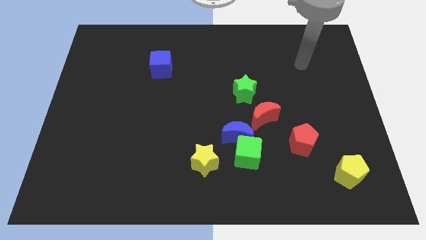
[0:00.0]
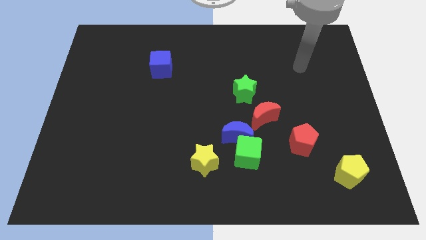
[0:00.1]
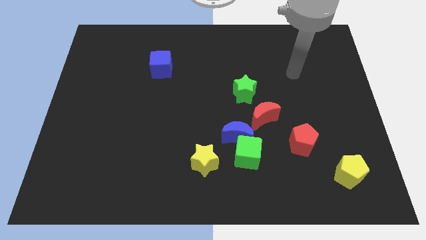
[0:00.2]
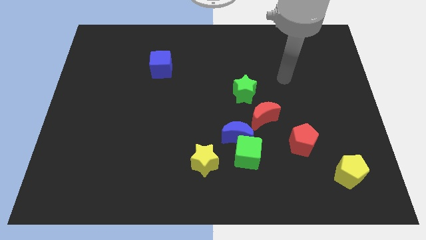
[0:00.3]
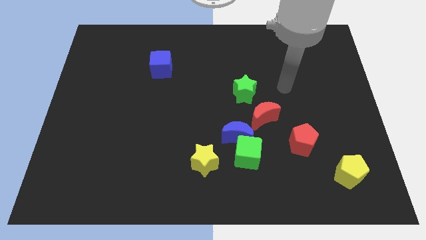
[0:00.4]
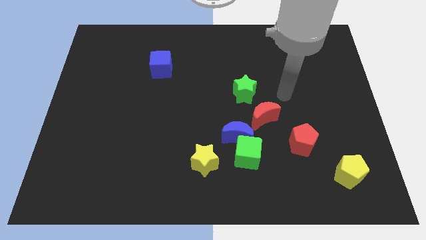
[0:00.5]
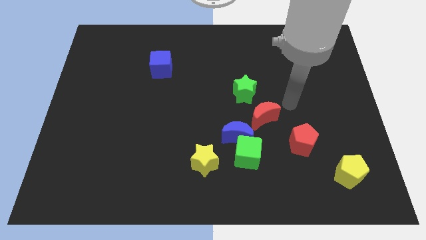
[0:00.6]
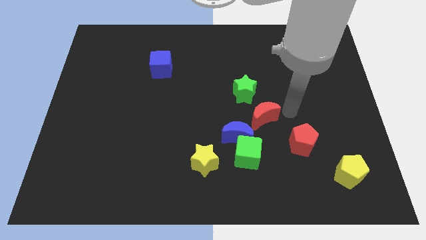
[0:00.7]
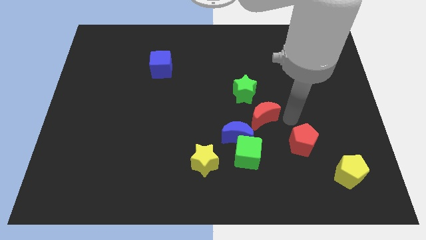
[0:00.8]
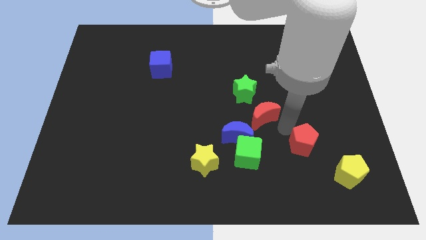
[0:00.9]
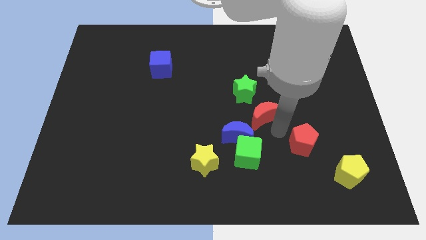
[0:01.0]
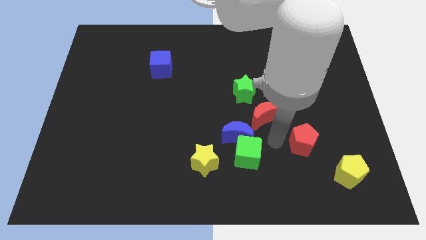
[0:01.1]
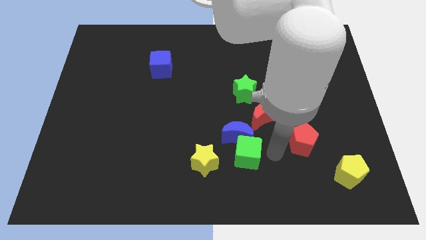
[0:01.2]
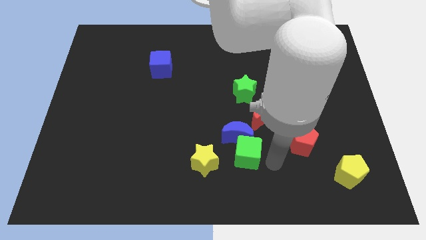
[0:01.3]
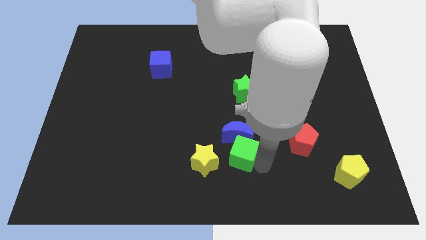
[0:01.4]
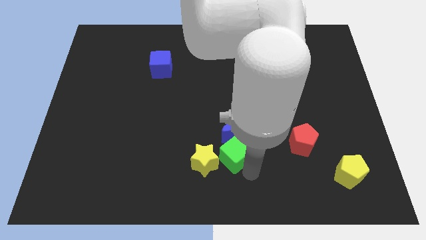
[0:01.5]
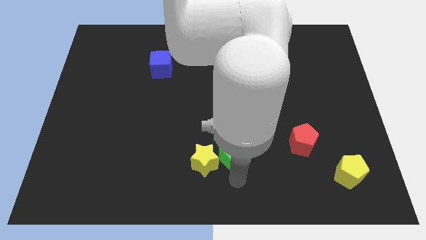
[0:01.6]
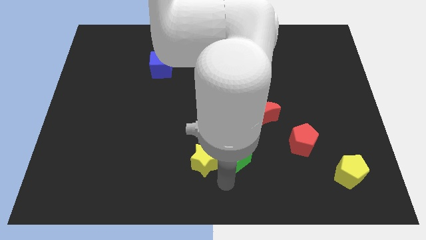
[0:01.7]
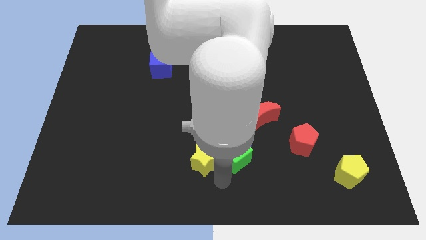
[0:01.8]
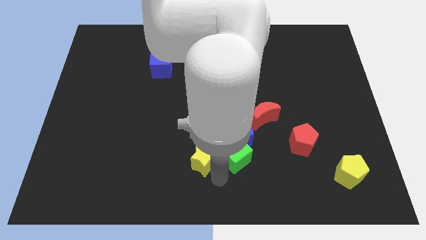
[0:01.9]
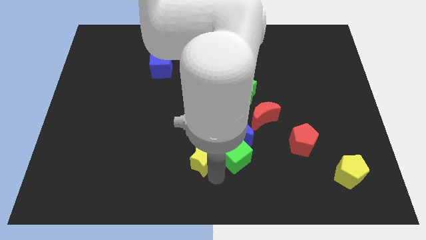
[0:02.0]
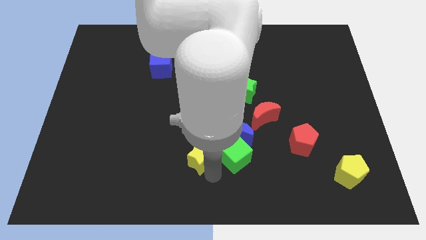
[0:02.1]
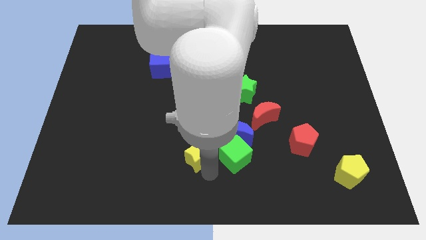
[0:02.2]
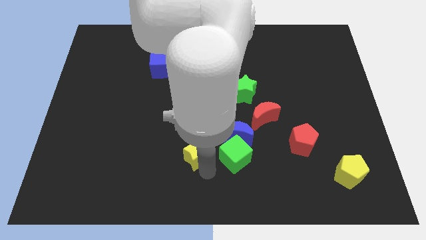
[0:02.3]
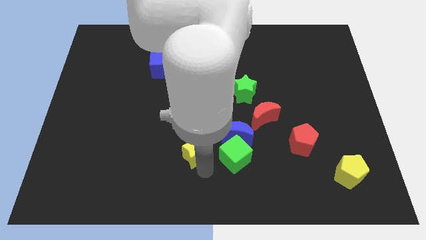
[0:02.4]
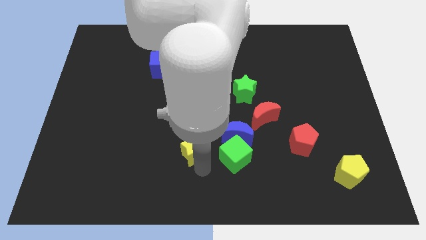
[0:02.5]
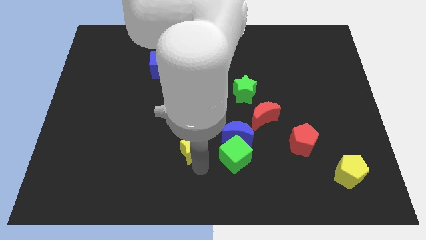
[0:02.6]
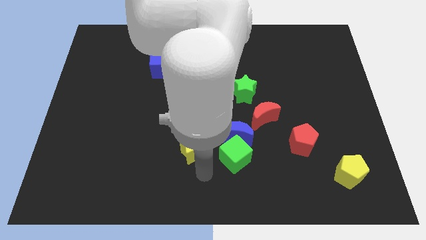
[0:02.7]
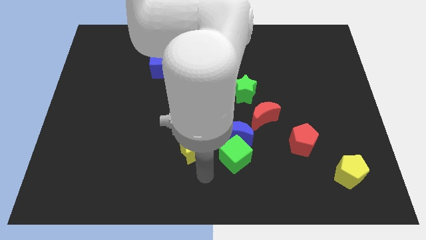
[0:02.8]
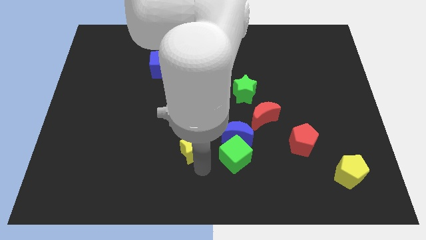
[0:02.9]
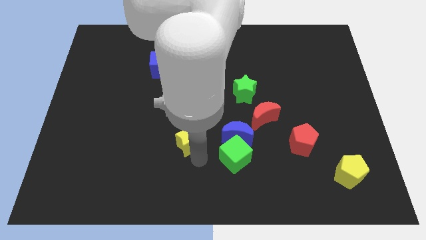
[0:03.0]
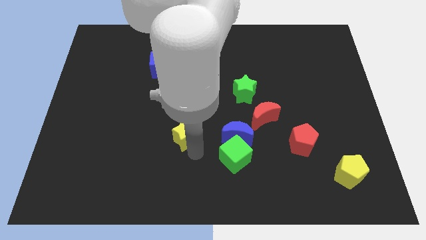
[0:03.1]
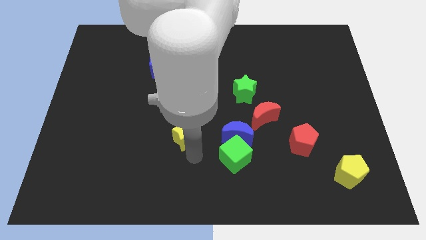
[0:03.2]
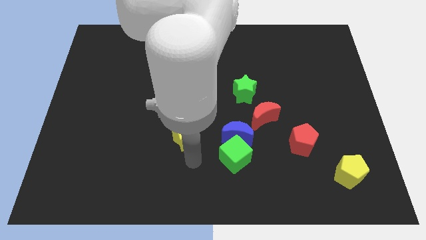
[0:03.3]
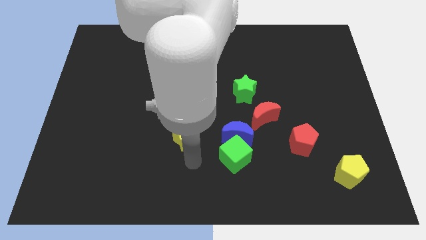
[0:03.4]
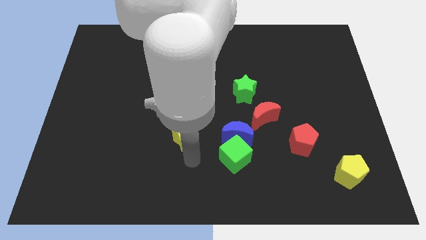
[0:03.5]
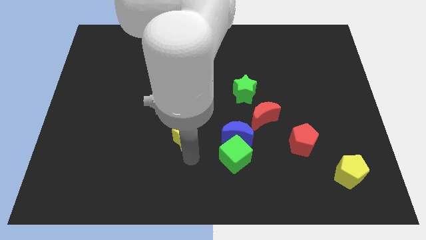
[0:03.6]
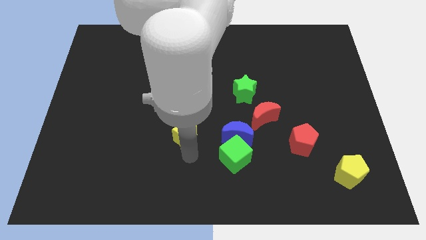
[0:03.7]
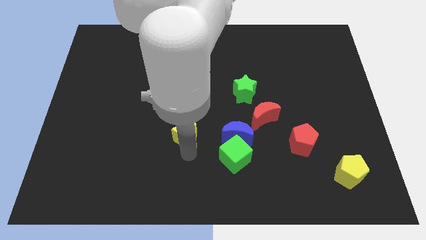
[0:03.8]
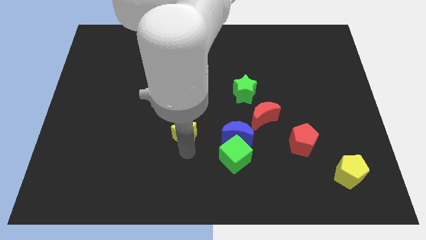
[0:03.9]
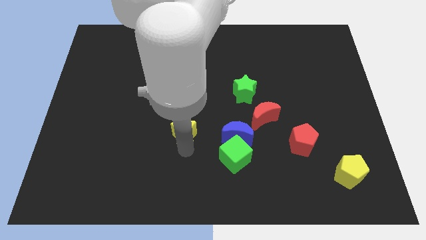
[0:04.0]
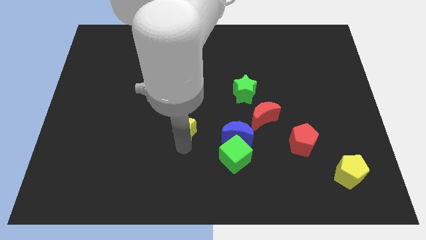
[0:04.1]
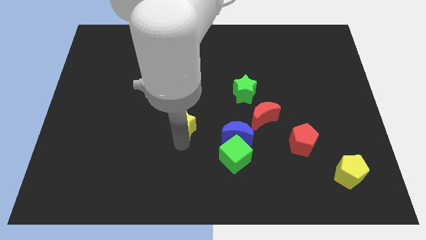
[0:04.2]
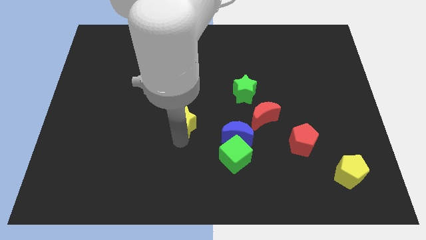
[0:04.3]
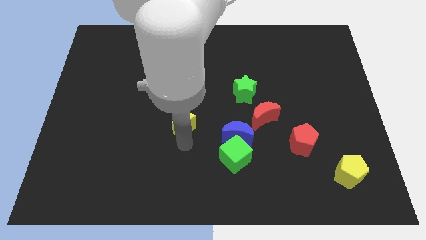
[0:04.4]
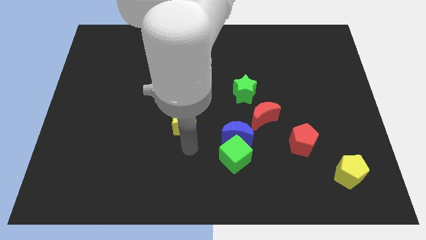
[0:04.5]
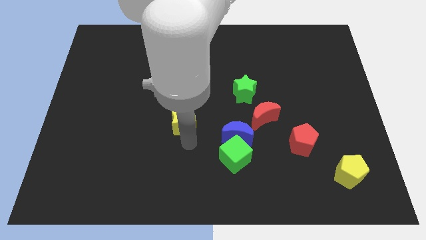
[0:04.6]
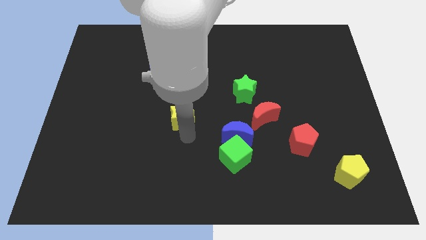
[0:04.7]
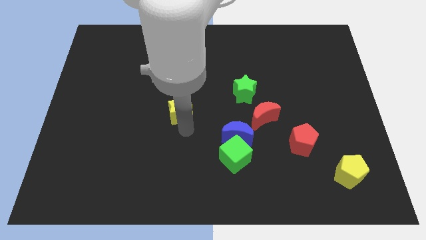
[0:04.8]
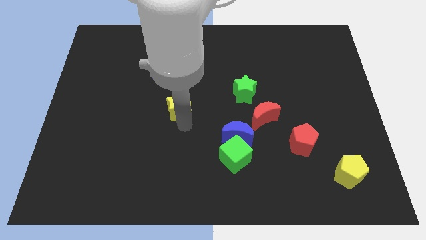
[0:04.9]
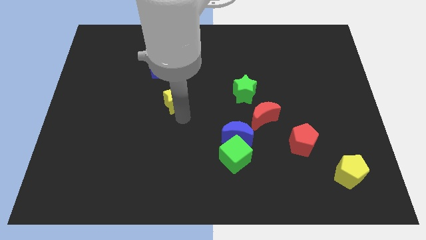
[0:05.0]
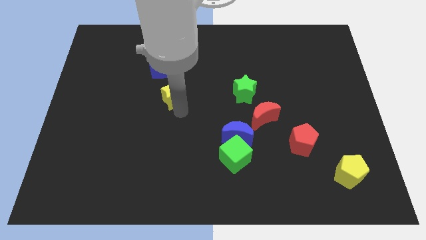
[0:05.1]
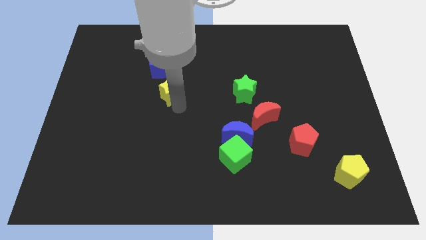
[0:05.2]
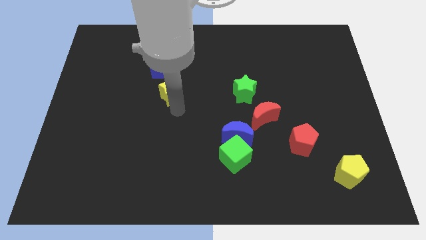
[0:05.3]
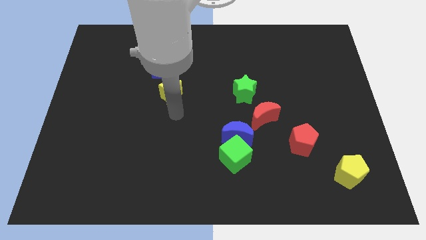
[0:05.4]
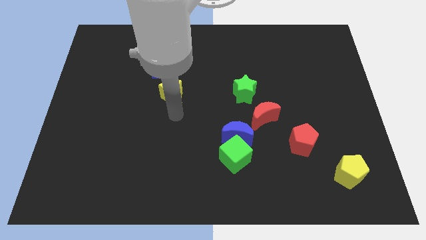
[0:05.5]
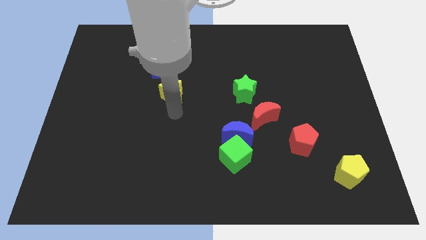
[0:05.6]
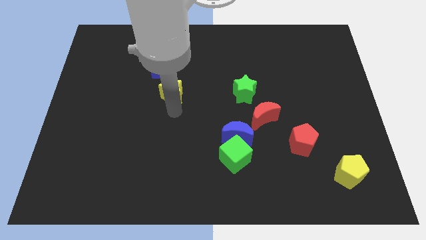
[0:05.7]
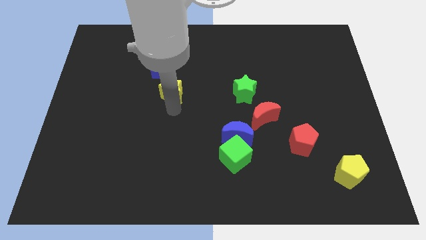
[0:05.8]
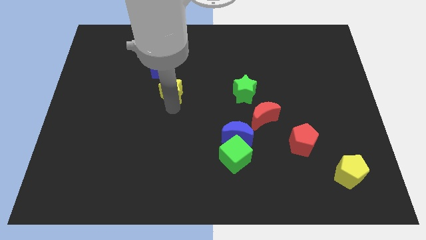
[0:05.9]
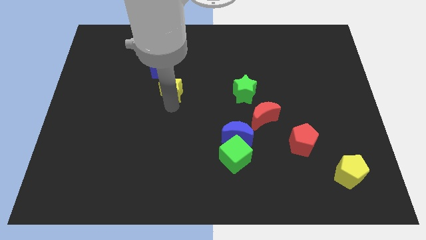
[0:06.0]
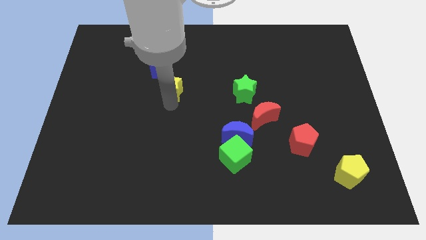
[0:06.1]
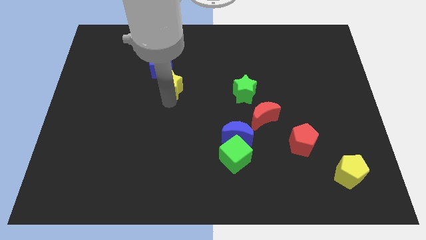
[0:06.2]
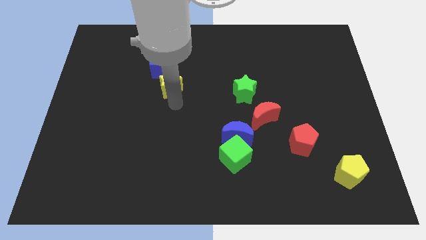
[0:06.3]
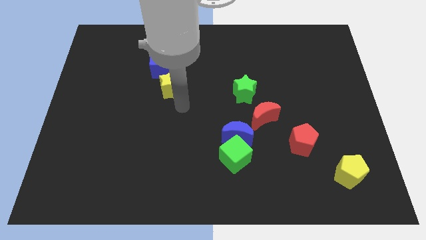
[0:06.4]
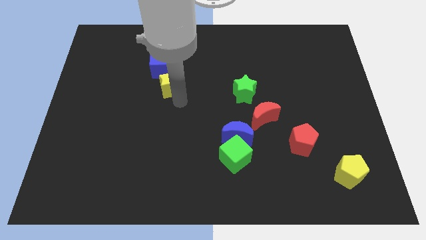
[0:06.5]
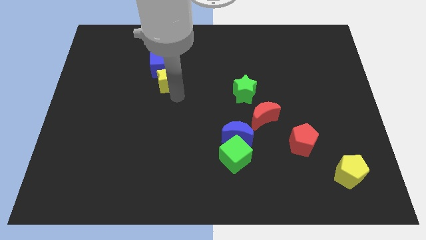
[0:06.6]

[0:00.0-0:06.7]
put the yellow star next to the blue cube
